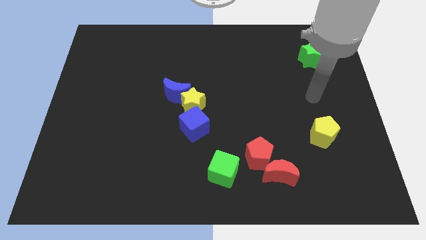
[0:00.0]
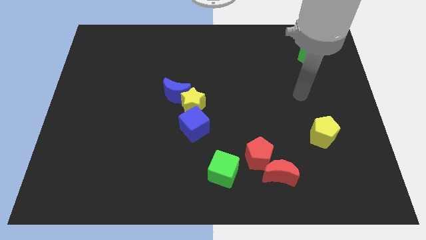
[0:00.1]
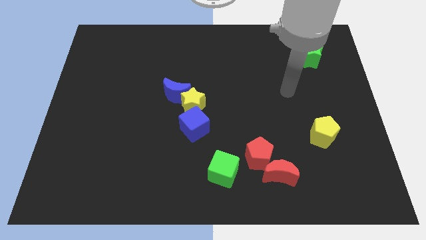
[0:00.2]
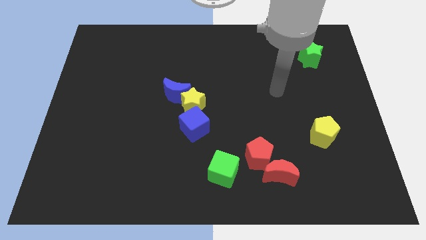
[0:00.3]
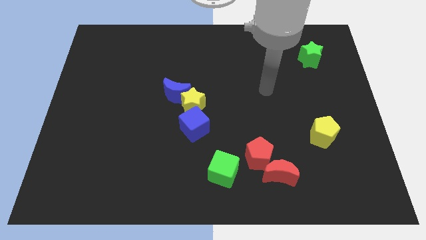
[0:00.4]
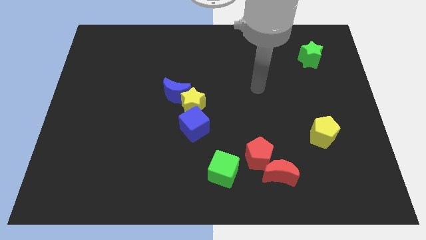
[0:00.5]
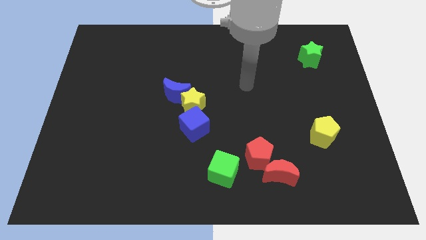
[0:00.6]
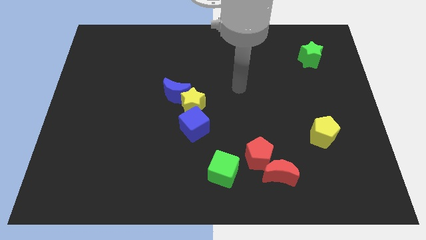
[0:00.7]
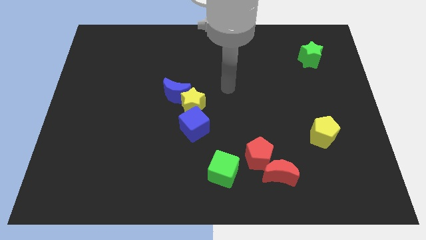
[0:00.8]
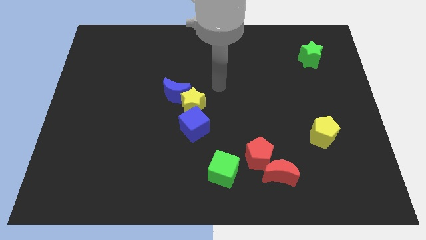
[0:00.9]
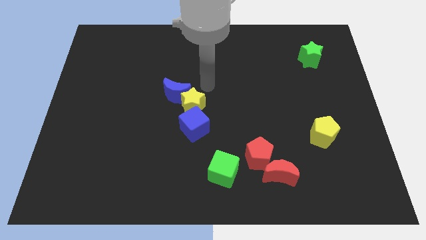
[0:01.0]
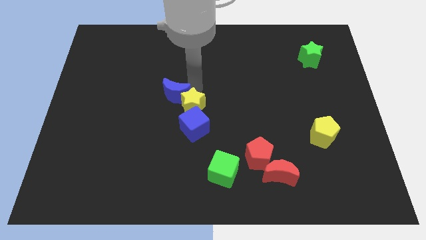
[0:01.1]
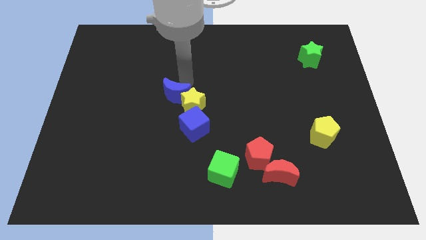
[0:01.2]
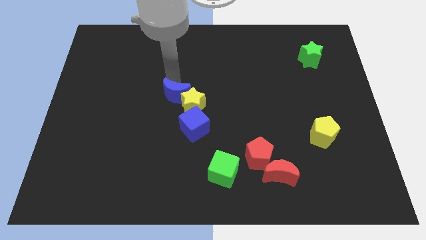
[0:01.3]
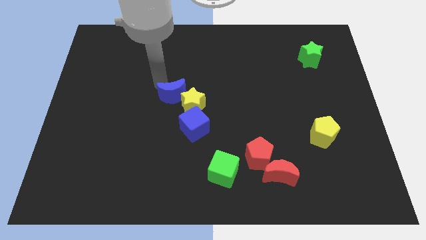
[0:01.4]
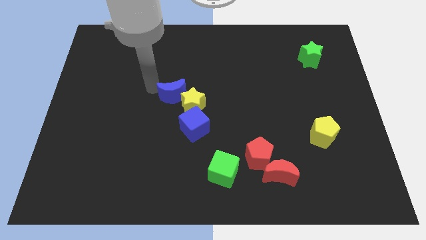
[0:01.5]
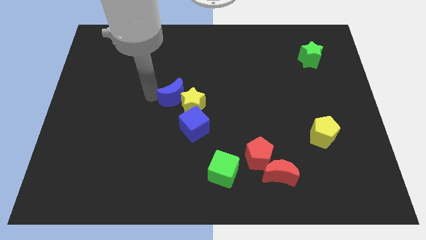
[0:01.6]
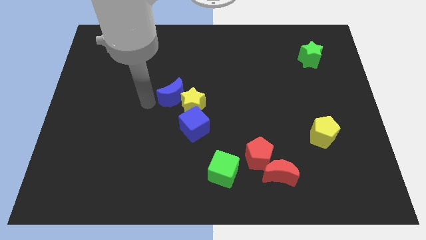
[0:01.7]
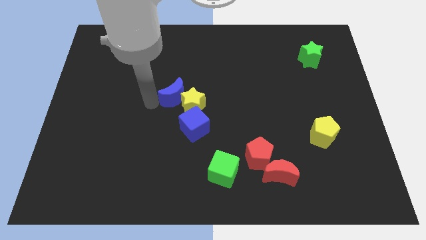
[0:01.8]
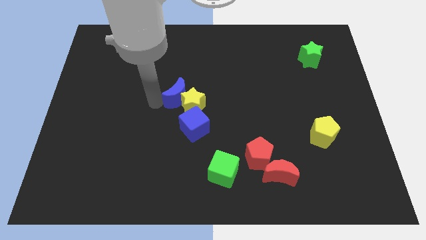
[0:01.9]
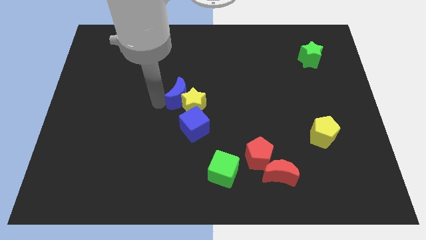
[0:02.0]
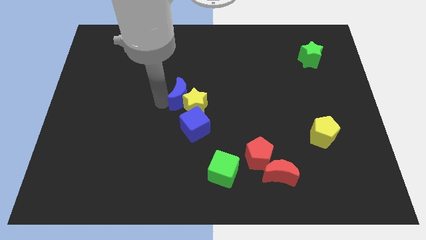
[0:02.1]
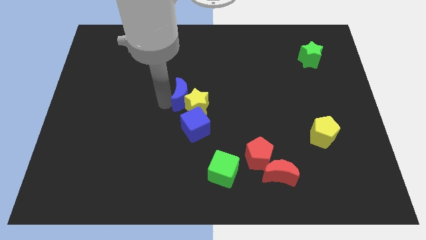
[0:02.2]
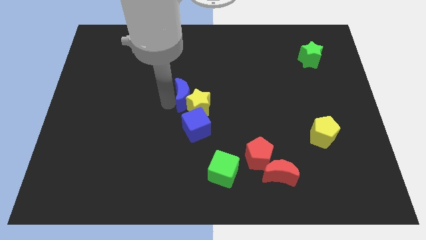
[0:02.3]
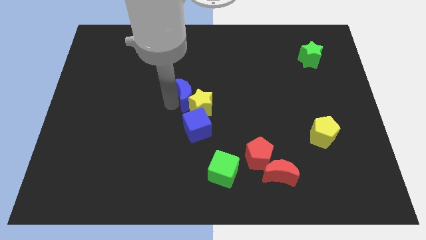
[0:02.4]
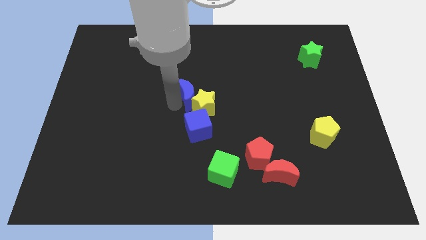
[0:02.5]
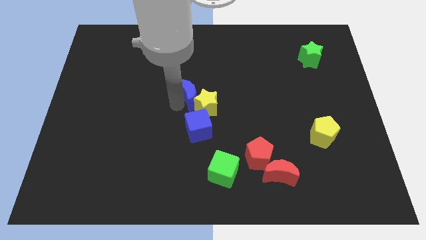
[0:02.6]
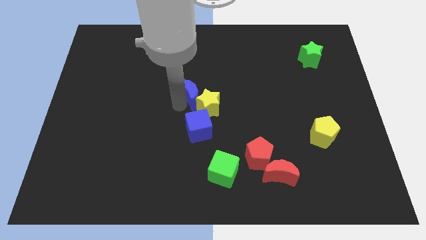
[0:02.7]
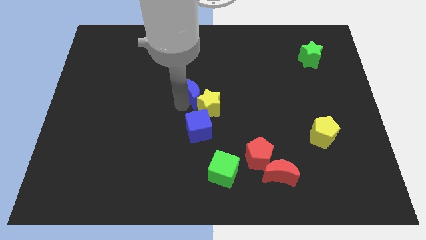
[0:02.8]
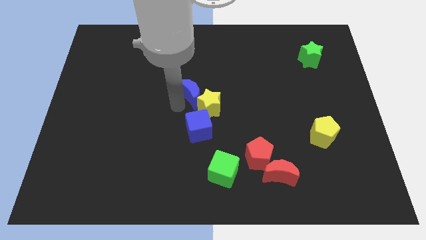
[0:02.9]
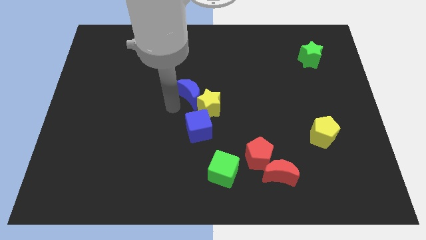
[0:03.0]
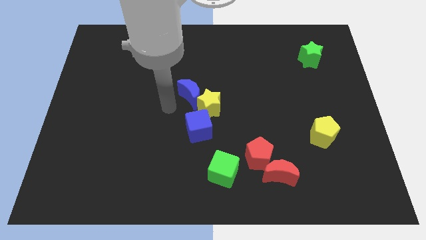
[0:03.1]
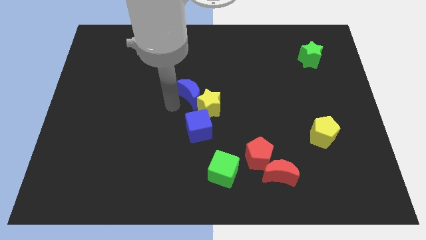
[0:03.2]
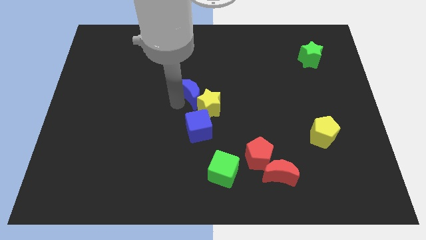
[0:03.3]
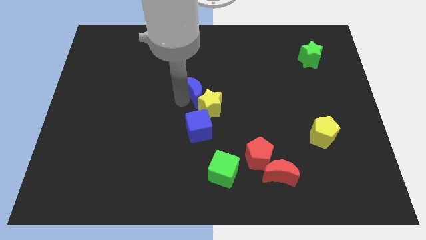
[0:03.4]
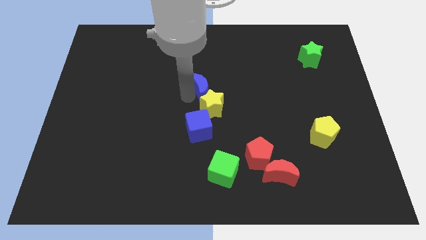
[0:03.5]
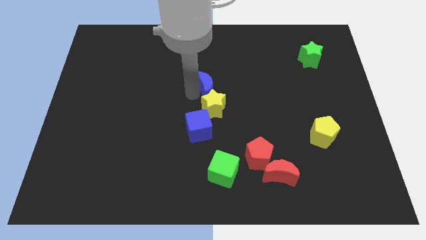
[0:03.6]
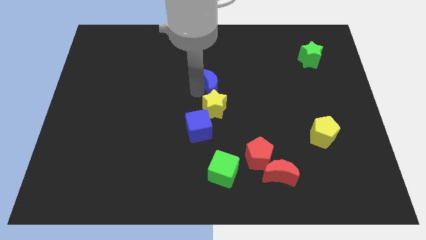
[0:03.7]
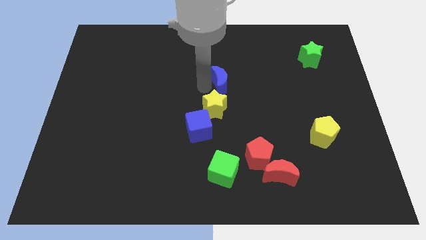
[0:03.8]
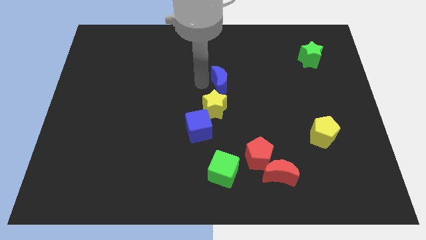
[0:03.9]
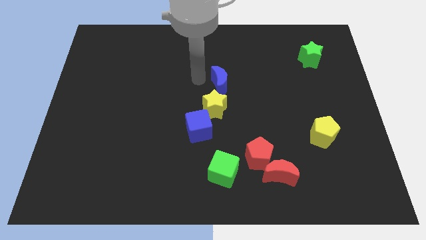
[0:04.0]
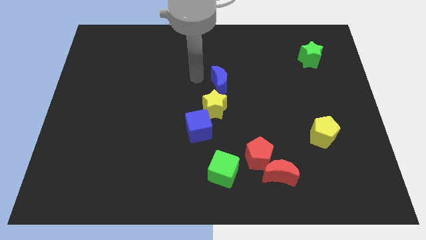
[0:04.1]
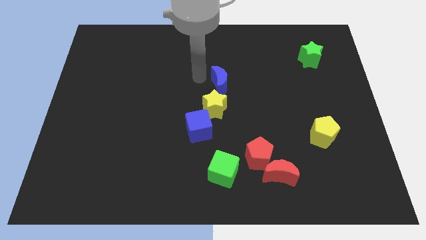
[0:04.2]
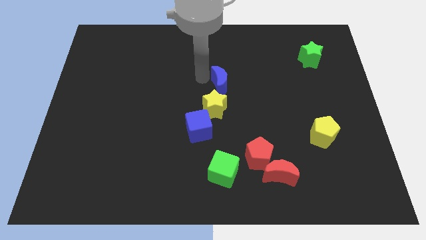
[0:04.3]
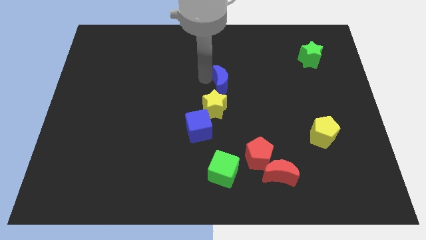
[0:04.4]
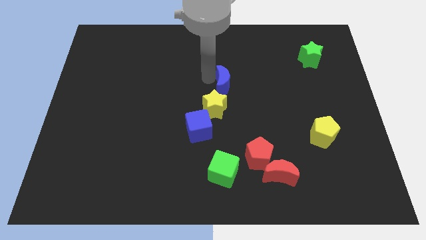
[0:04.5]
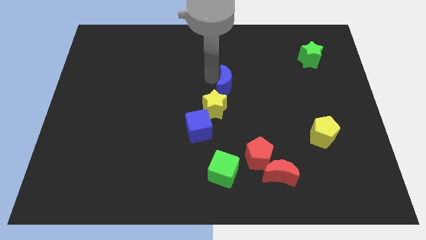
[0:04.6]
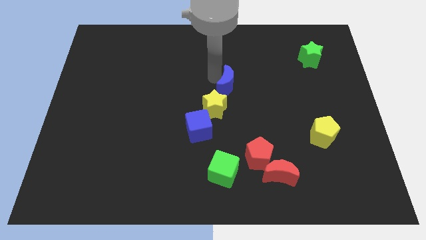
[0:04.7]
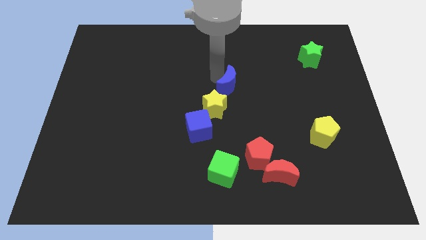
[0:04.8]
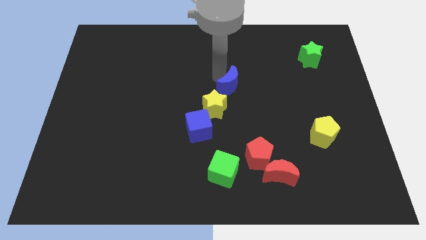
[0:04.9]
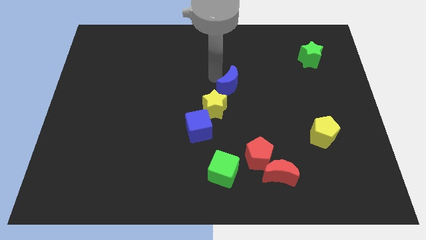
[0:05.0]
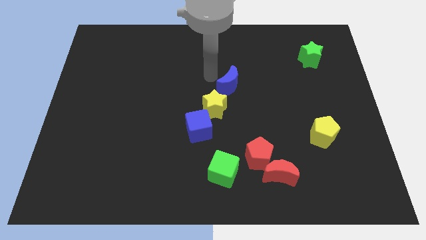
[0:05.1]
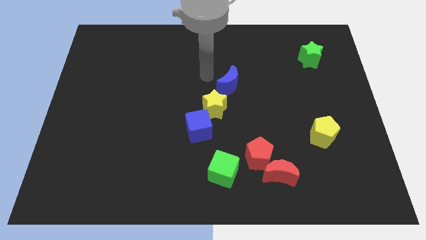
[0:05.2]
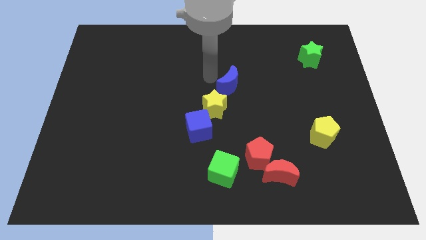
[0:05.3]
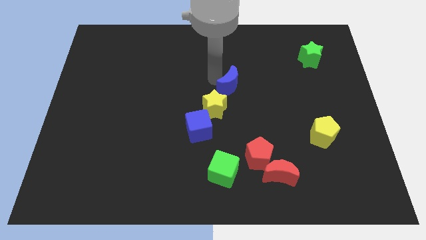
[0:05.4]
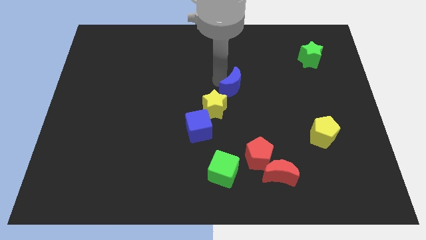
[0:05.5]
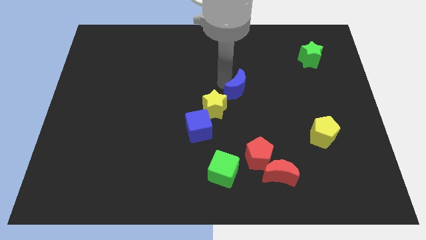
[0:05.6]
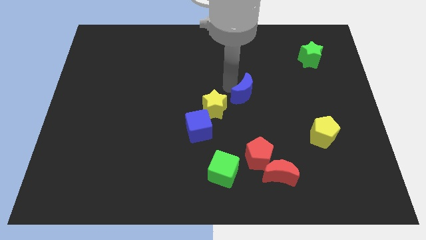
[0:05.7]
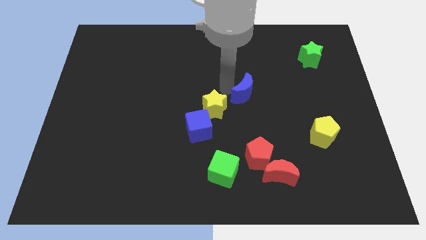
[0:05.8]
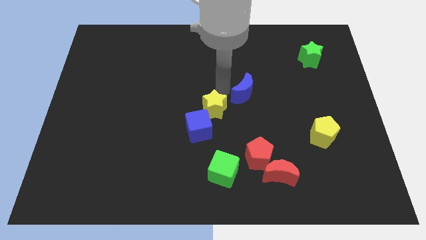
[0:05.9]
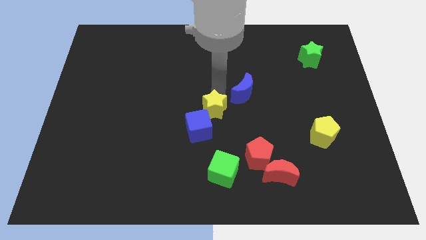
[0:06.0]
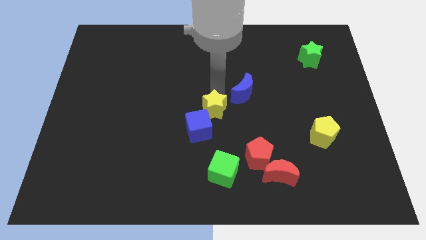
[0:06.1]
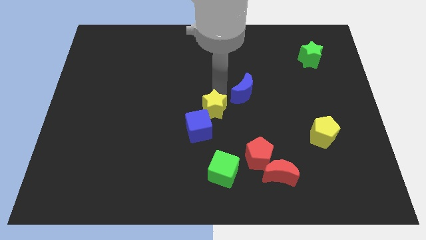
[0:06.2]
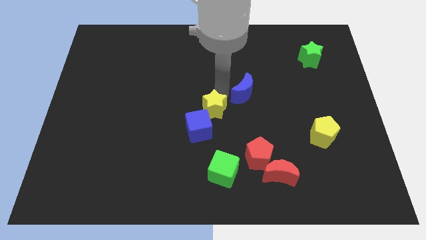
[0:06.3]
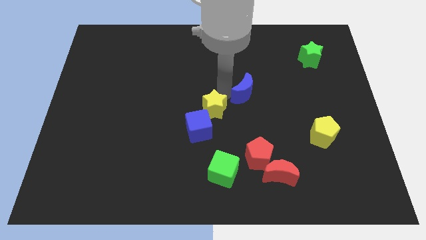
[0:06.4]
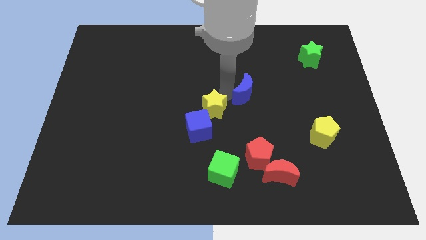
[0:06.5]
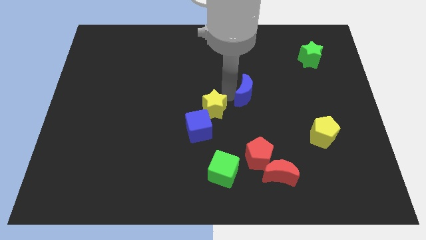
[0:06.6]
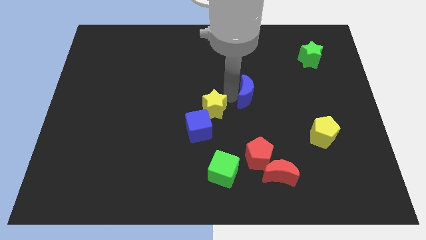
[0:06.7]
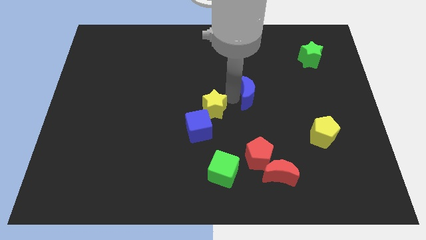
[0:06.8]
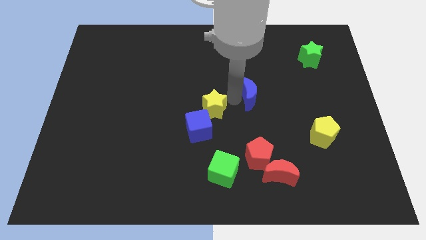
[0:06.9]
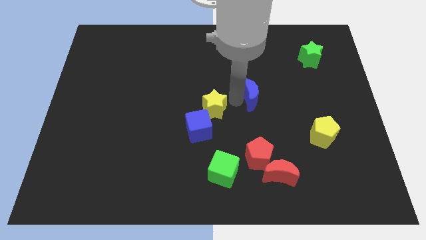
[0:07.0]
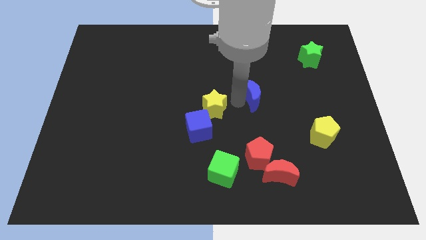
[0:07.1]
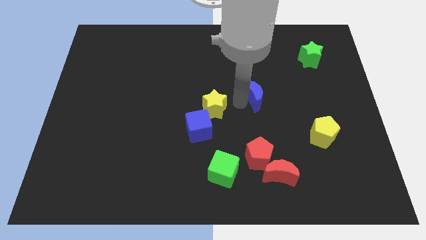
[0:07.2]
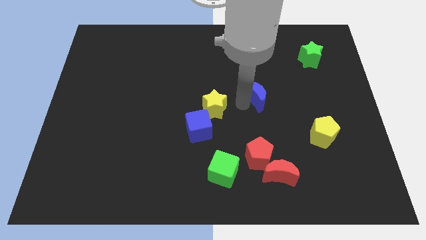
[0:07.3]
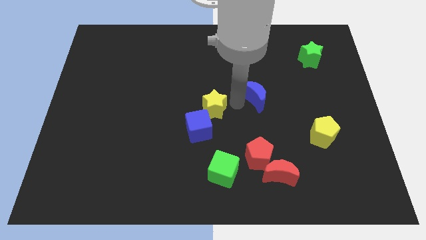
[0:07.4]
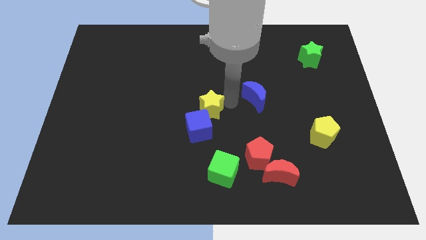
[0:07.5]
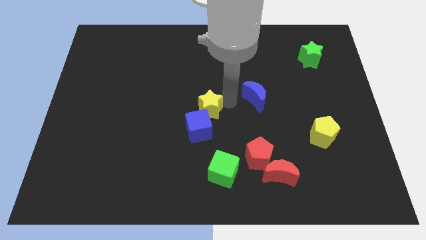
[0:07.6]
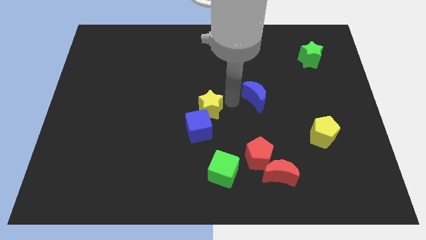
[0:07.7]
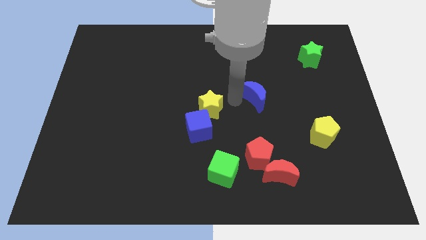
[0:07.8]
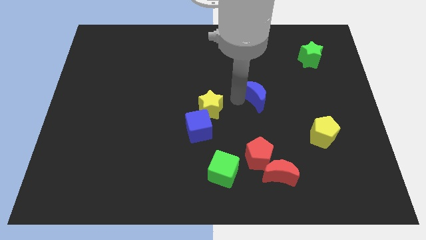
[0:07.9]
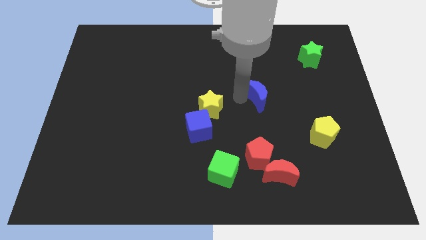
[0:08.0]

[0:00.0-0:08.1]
move the blue moon right
